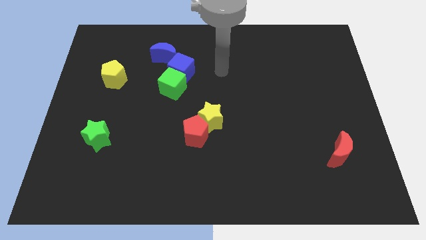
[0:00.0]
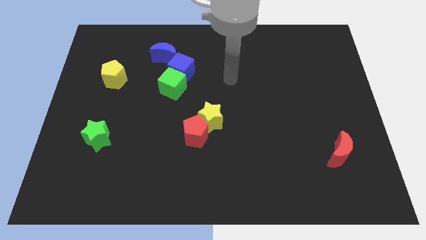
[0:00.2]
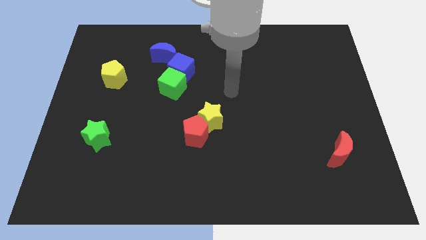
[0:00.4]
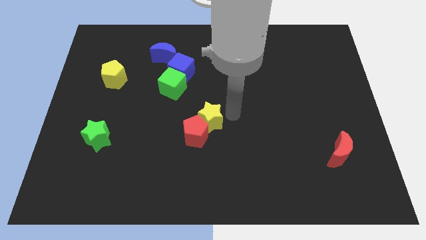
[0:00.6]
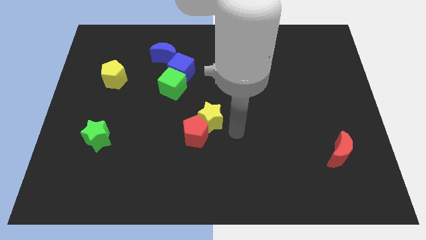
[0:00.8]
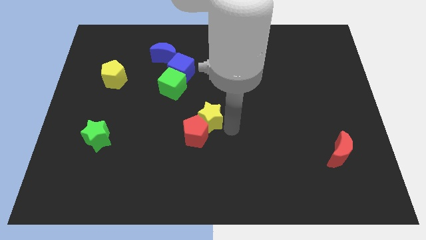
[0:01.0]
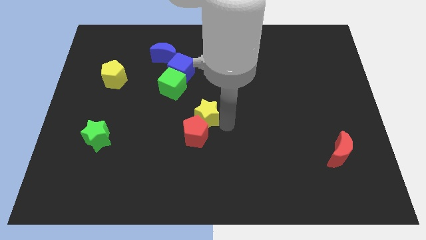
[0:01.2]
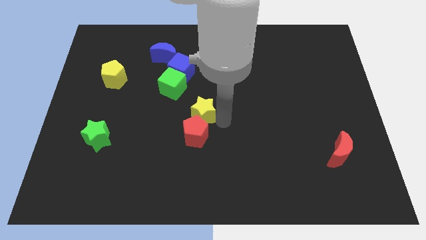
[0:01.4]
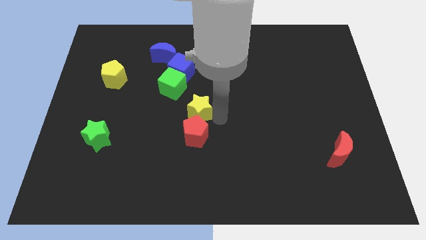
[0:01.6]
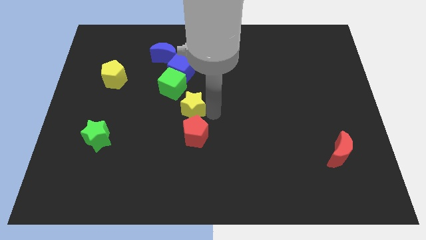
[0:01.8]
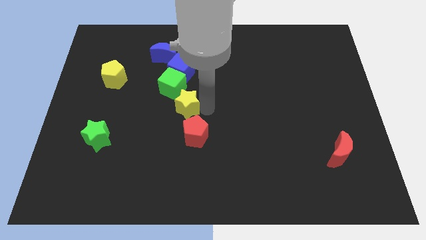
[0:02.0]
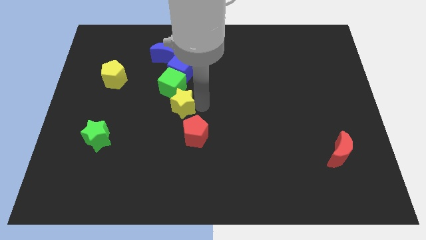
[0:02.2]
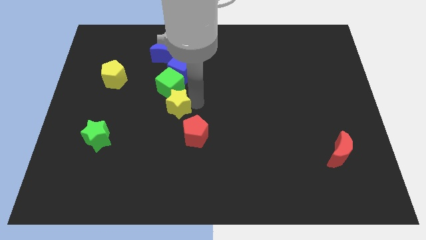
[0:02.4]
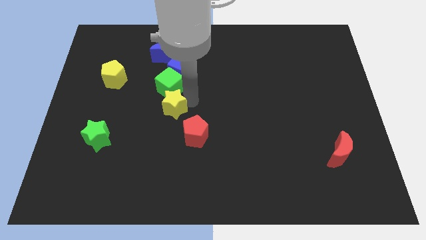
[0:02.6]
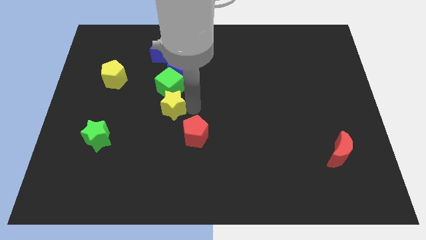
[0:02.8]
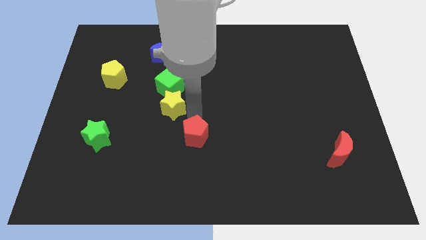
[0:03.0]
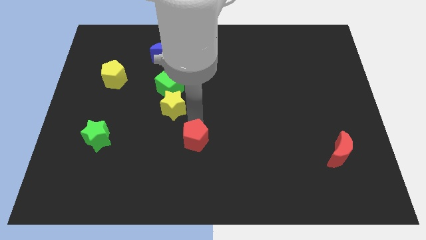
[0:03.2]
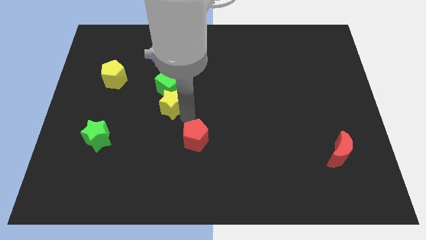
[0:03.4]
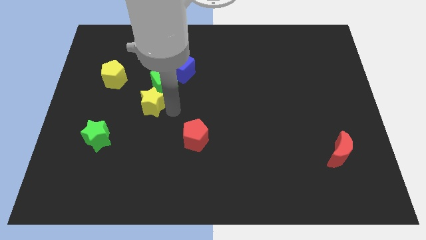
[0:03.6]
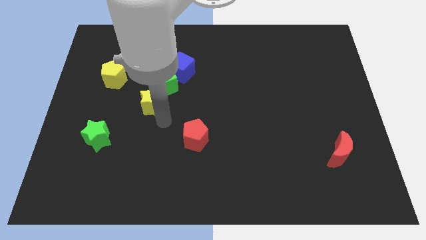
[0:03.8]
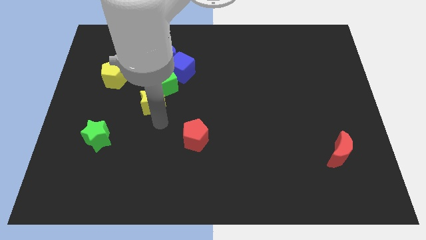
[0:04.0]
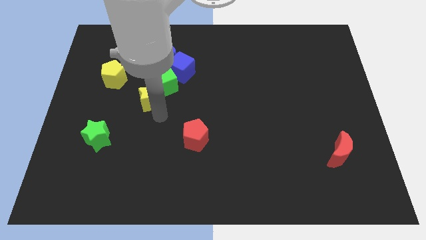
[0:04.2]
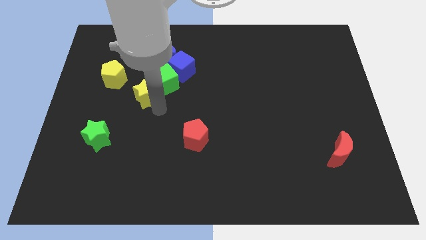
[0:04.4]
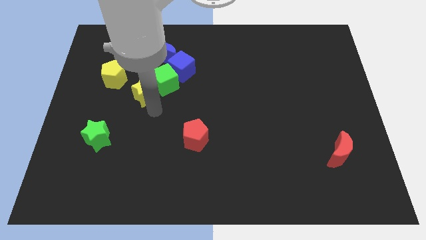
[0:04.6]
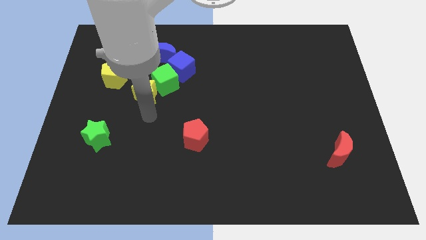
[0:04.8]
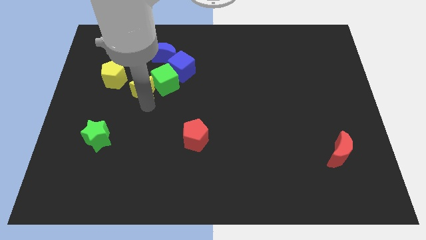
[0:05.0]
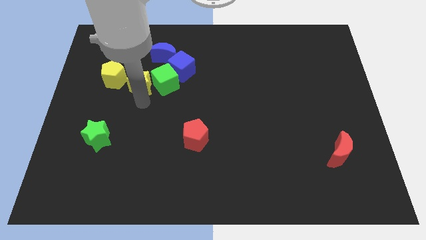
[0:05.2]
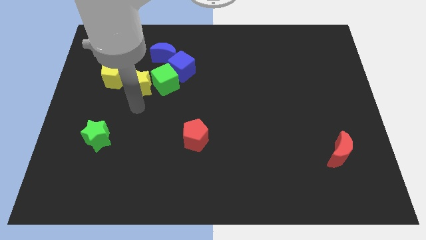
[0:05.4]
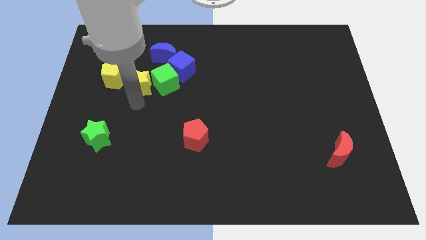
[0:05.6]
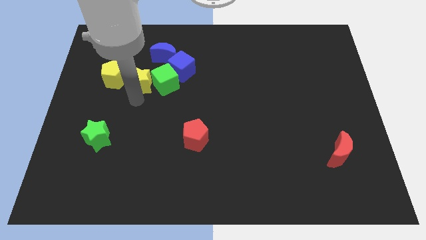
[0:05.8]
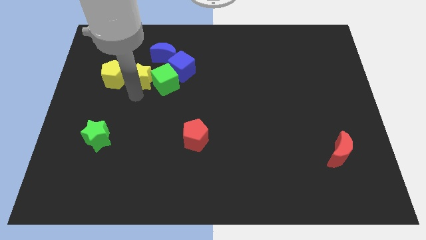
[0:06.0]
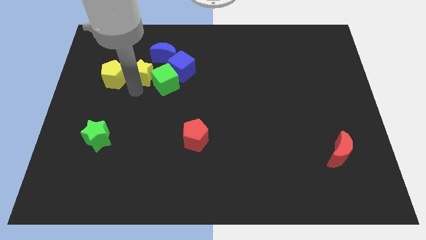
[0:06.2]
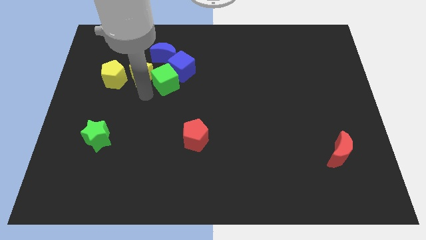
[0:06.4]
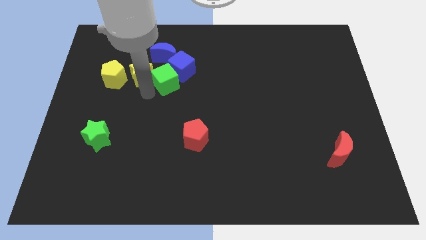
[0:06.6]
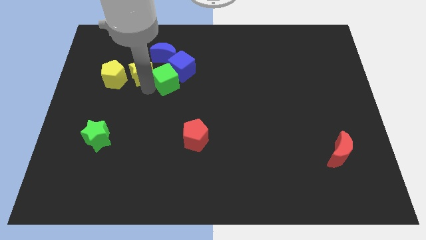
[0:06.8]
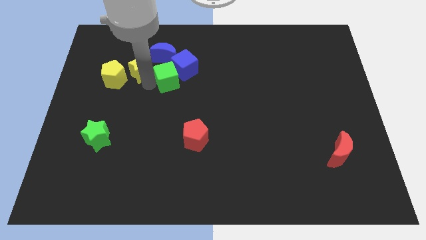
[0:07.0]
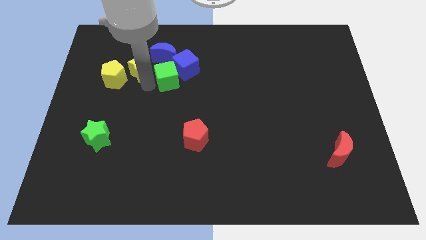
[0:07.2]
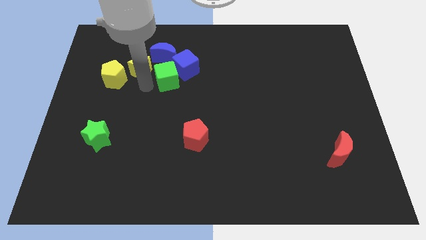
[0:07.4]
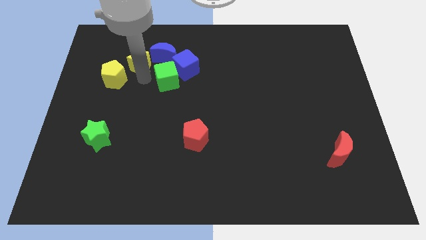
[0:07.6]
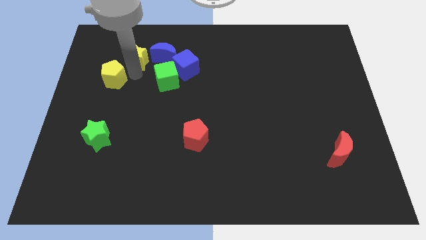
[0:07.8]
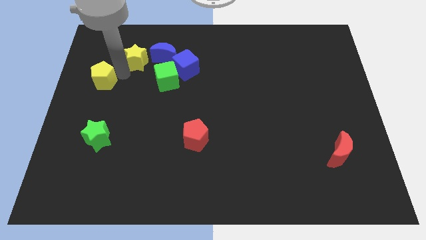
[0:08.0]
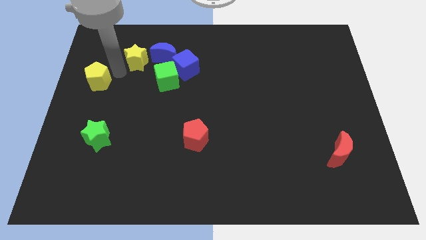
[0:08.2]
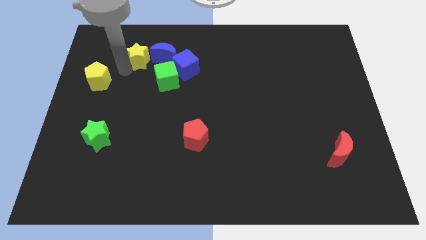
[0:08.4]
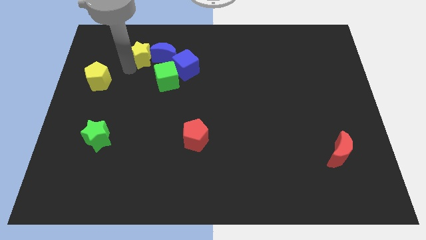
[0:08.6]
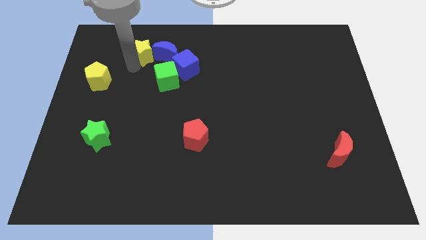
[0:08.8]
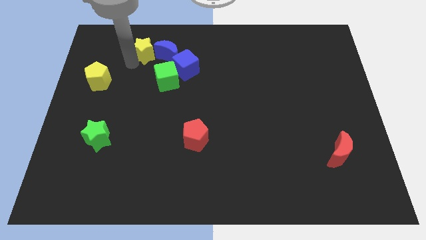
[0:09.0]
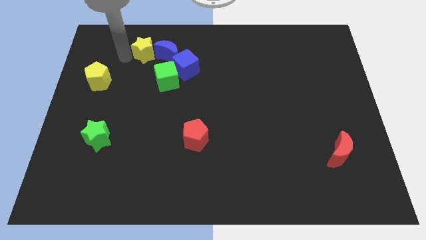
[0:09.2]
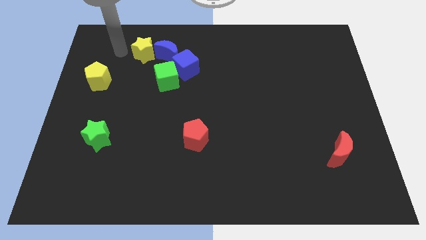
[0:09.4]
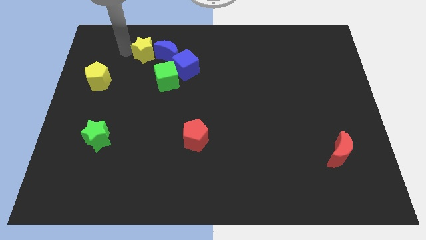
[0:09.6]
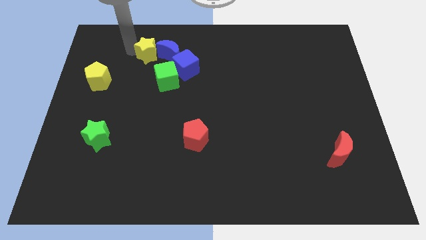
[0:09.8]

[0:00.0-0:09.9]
slide the yellow star diagonally up and to the left of the blue cube

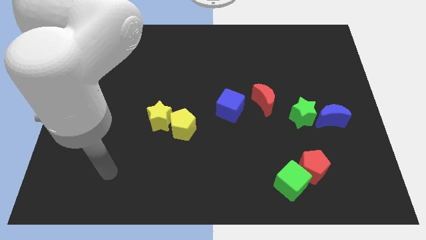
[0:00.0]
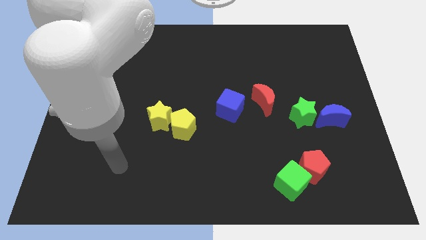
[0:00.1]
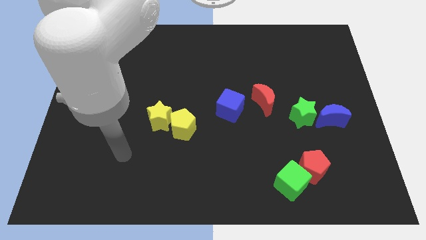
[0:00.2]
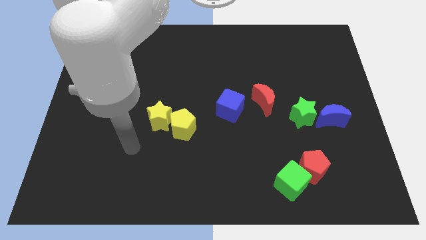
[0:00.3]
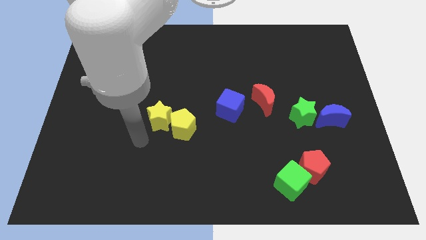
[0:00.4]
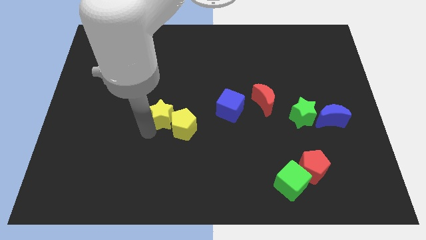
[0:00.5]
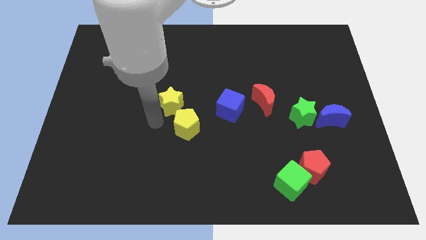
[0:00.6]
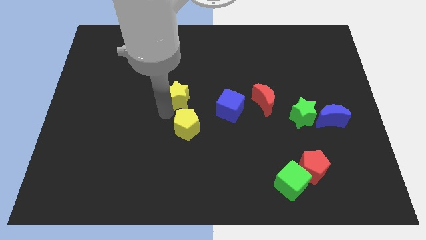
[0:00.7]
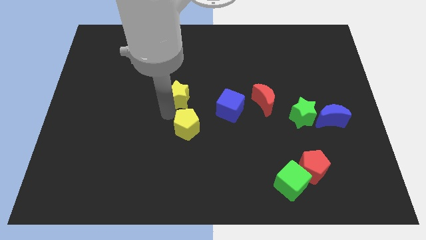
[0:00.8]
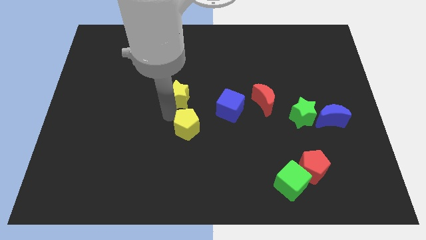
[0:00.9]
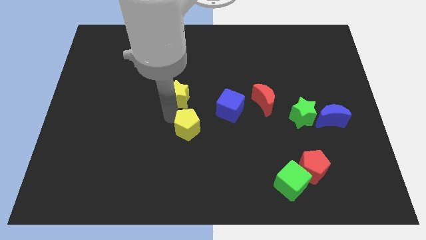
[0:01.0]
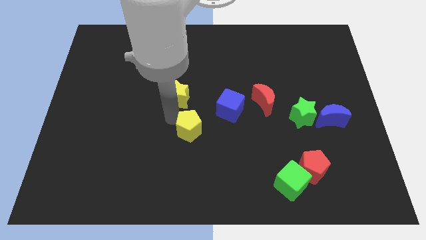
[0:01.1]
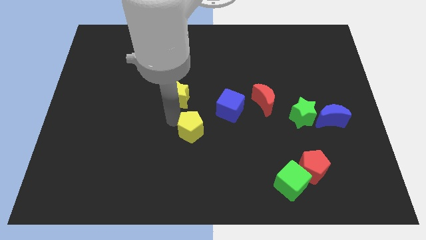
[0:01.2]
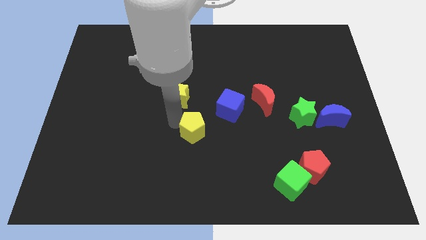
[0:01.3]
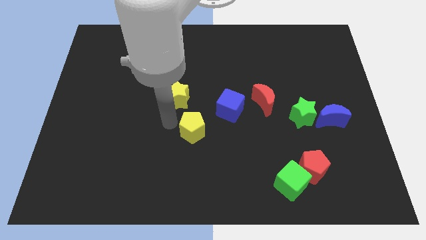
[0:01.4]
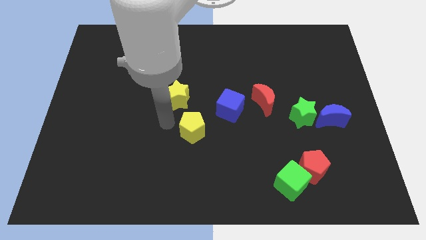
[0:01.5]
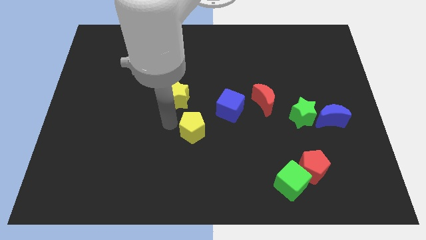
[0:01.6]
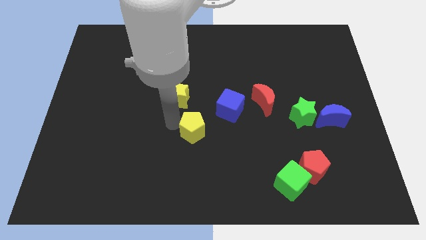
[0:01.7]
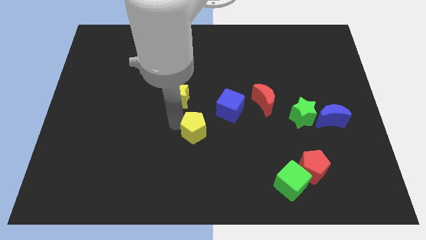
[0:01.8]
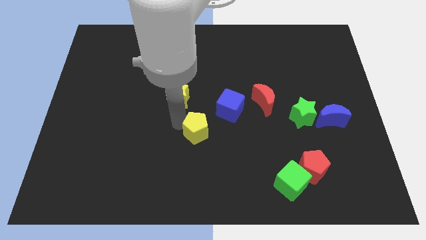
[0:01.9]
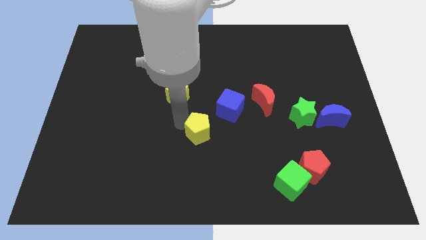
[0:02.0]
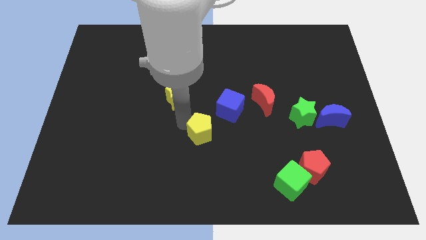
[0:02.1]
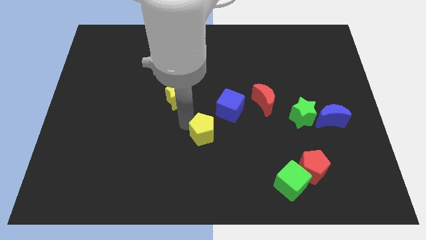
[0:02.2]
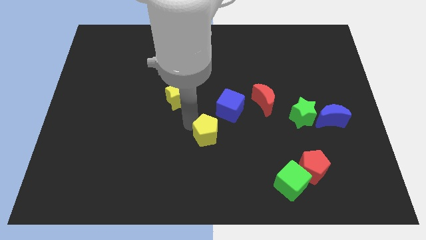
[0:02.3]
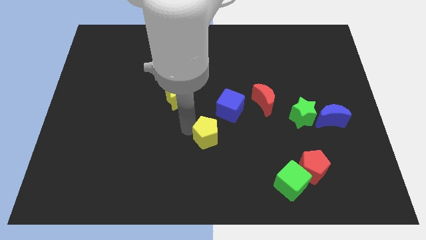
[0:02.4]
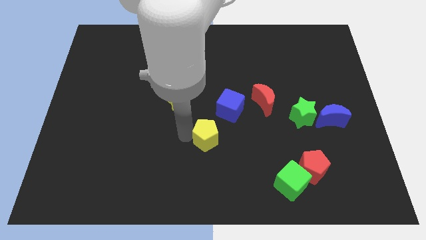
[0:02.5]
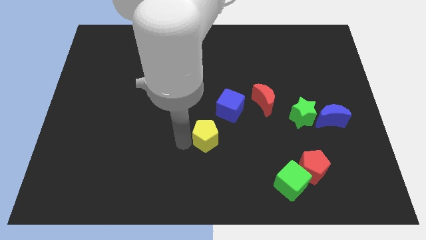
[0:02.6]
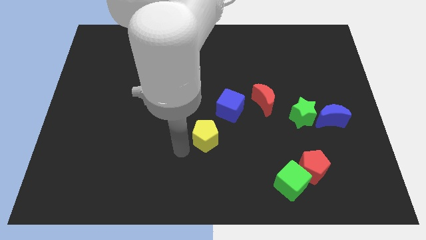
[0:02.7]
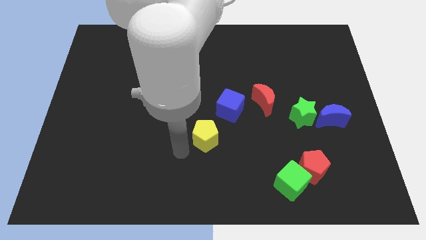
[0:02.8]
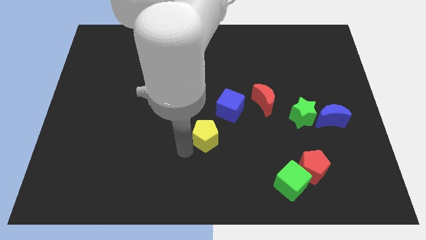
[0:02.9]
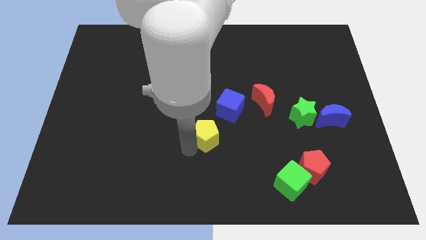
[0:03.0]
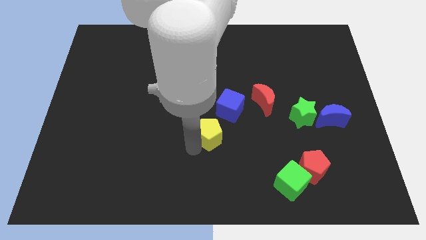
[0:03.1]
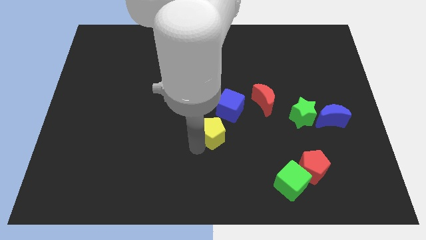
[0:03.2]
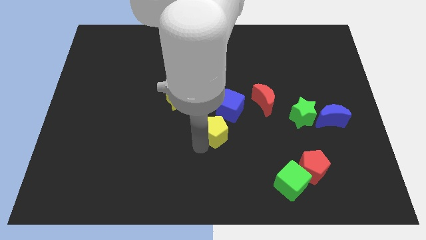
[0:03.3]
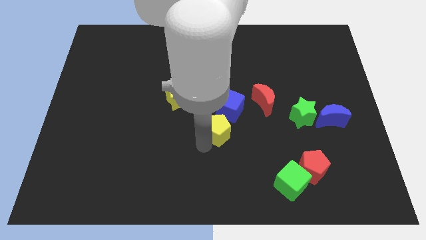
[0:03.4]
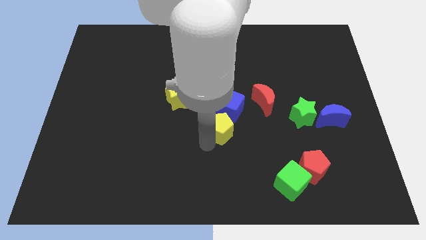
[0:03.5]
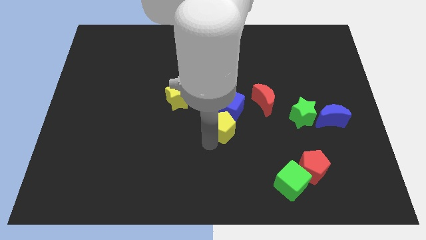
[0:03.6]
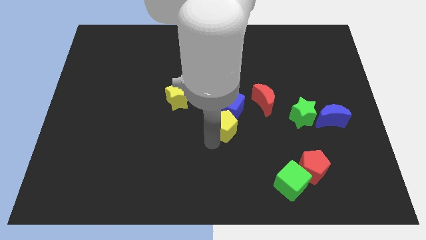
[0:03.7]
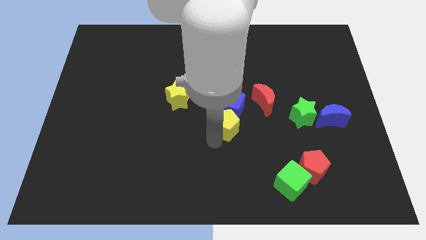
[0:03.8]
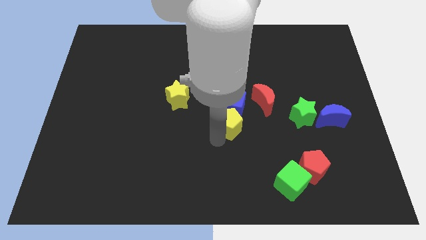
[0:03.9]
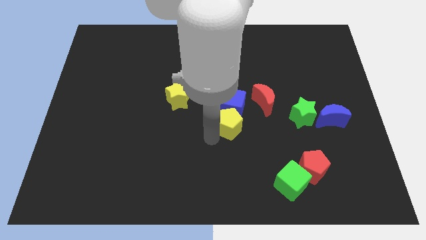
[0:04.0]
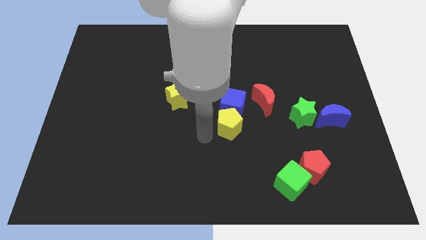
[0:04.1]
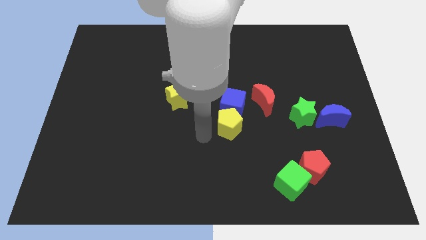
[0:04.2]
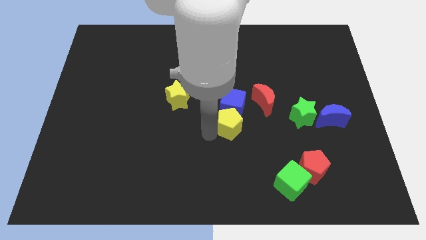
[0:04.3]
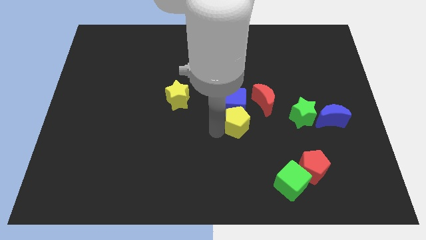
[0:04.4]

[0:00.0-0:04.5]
move the yellow pentagon just left of the green star
